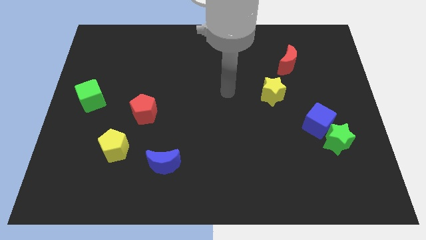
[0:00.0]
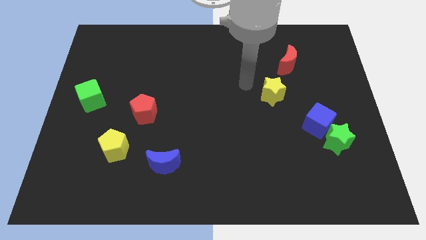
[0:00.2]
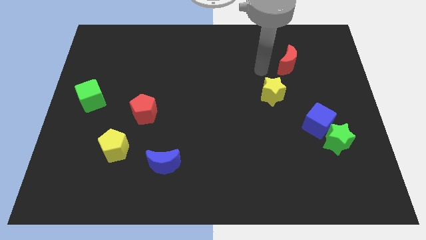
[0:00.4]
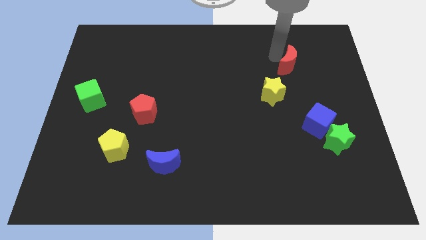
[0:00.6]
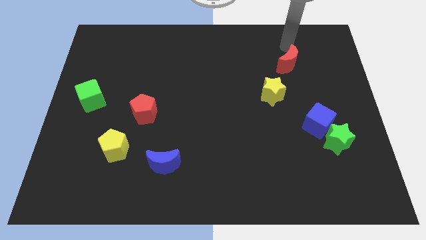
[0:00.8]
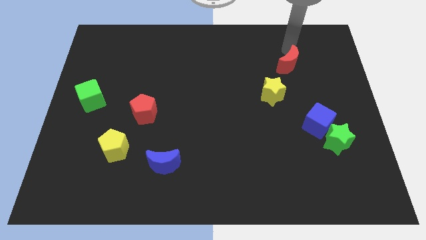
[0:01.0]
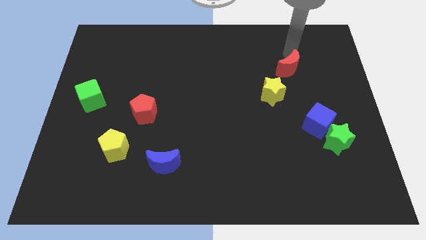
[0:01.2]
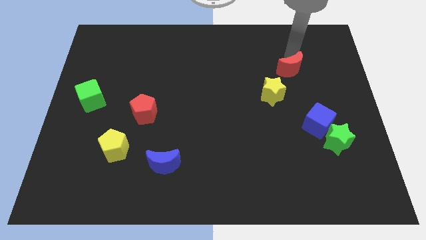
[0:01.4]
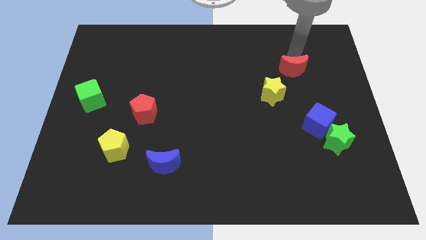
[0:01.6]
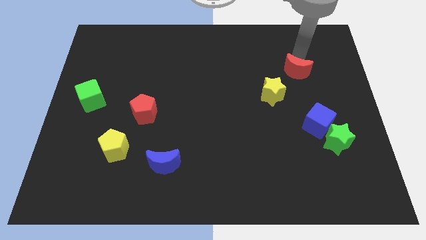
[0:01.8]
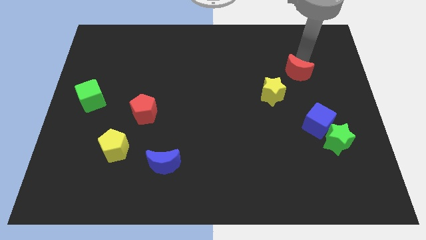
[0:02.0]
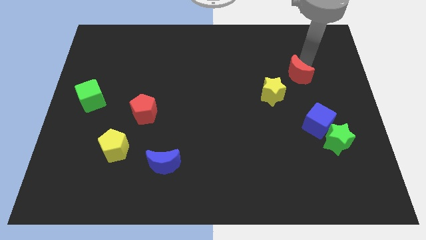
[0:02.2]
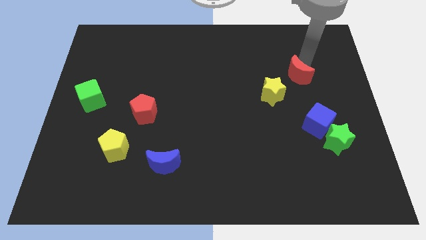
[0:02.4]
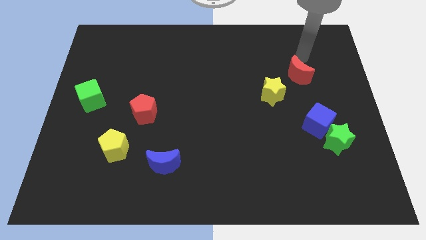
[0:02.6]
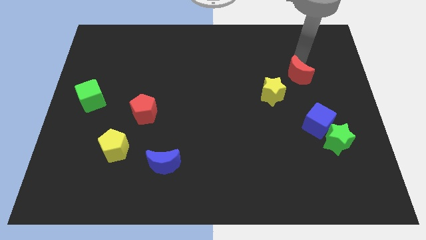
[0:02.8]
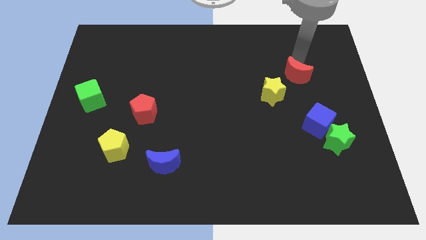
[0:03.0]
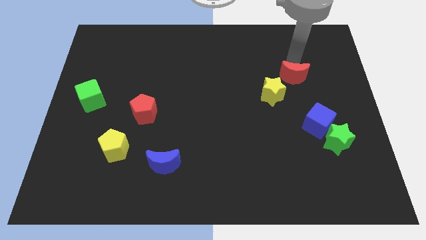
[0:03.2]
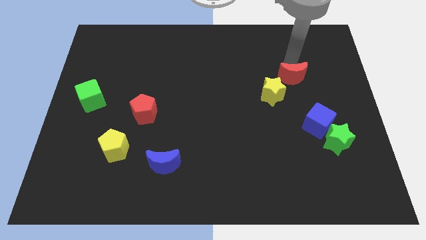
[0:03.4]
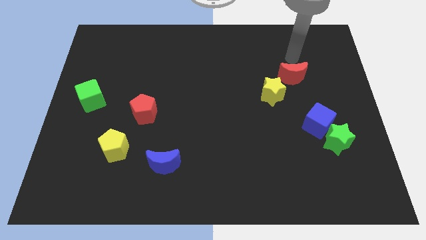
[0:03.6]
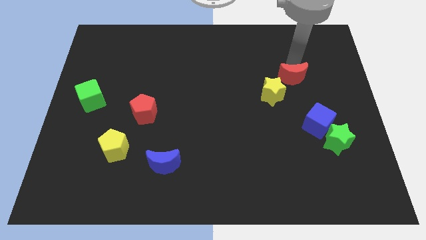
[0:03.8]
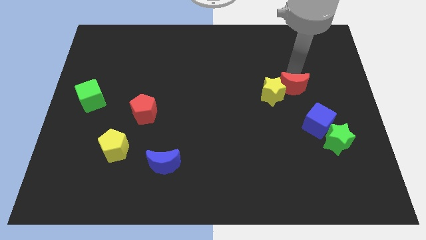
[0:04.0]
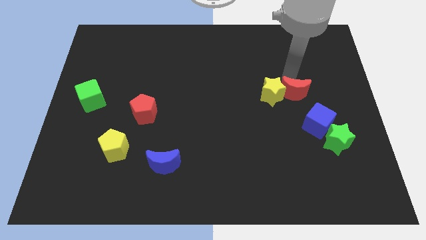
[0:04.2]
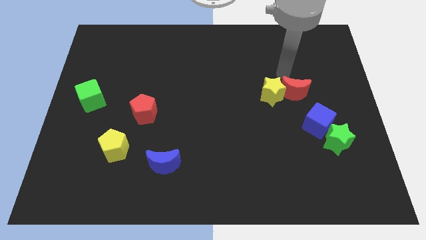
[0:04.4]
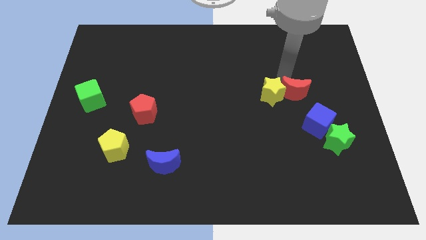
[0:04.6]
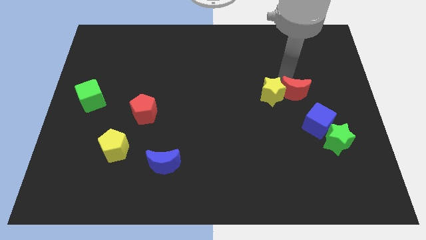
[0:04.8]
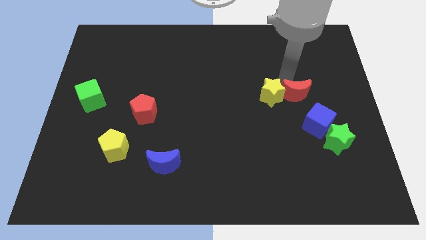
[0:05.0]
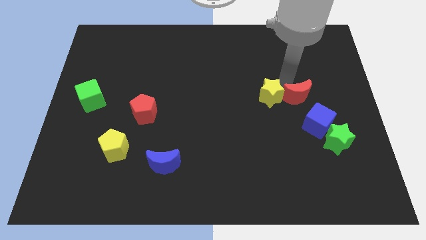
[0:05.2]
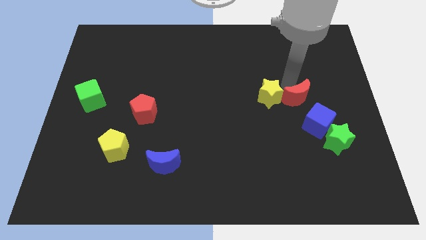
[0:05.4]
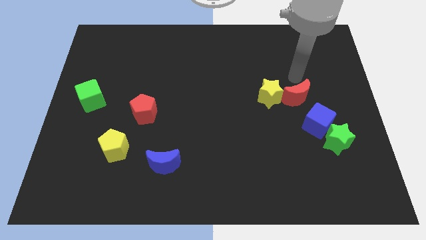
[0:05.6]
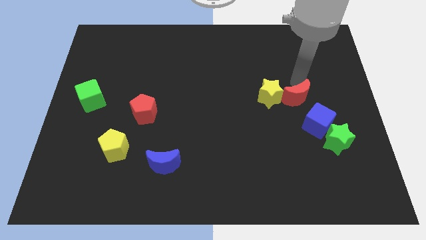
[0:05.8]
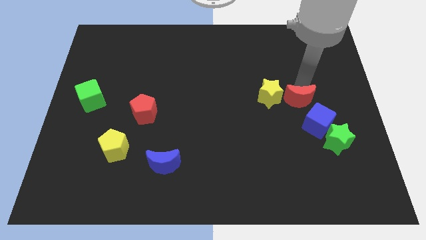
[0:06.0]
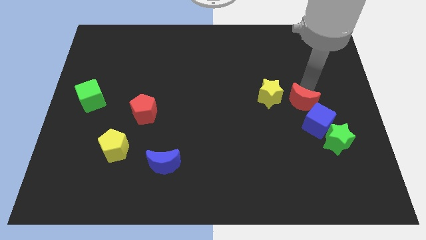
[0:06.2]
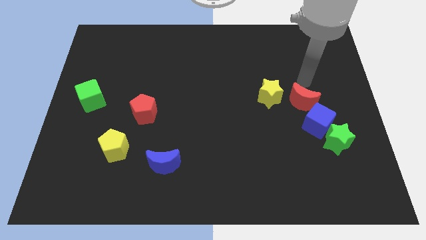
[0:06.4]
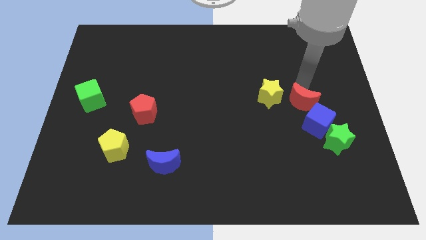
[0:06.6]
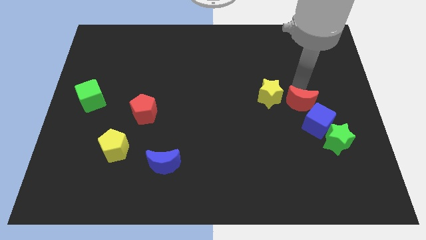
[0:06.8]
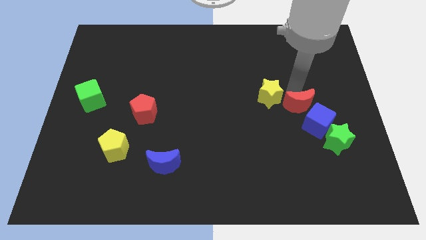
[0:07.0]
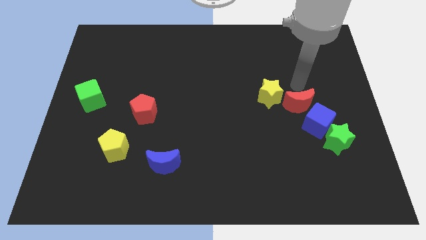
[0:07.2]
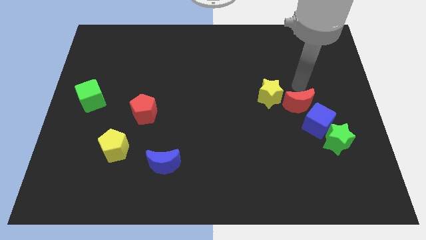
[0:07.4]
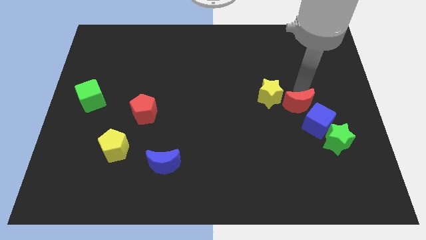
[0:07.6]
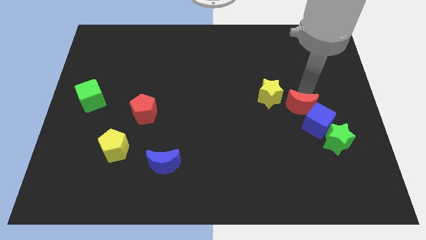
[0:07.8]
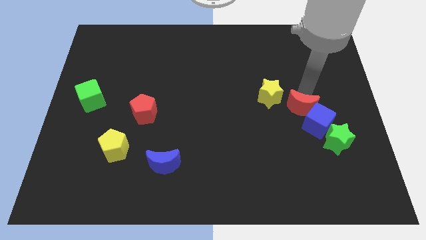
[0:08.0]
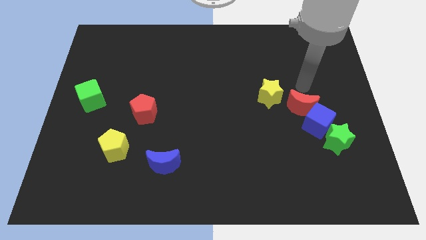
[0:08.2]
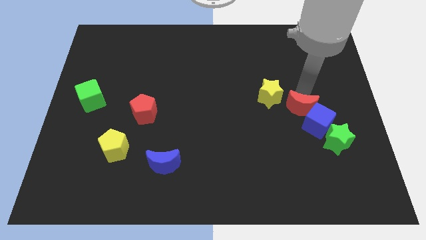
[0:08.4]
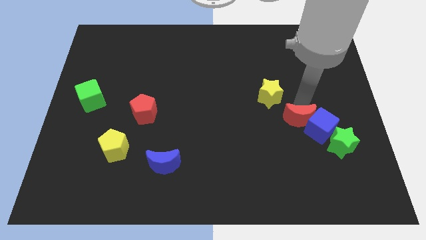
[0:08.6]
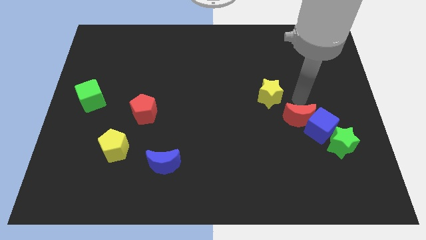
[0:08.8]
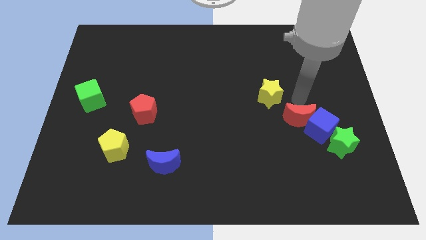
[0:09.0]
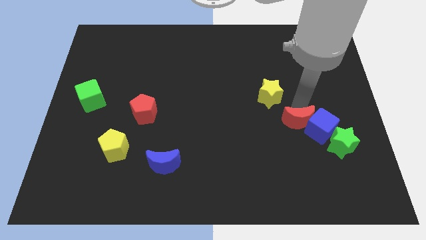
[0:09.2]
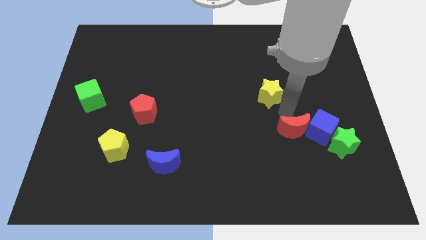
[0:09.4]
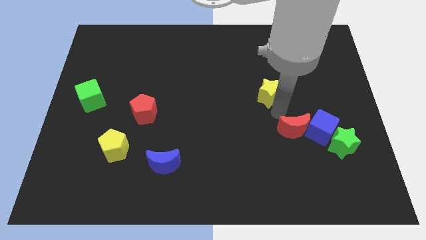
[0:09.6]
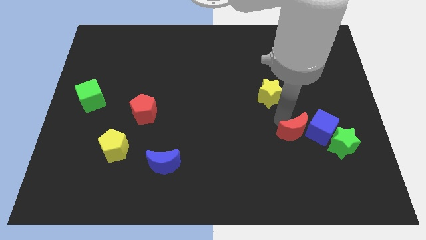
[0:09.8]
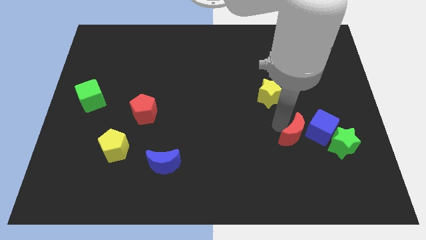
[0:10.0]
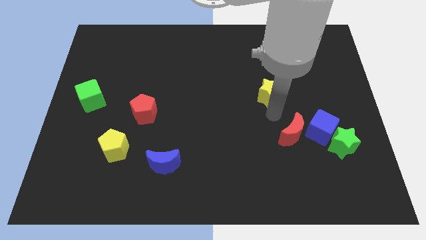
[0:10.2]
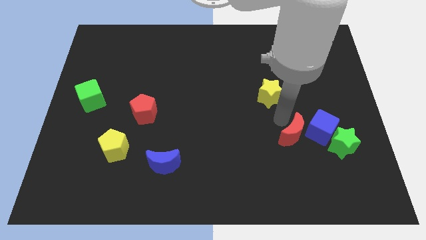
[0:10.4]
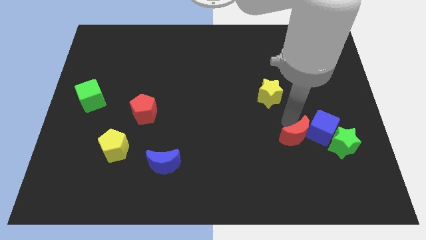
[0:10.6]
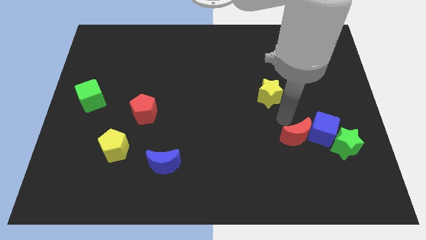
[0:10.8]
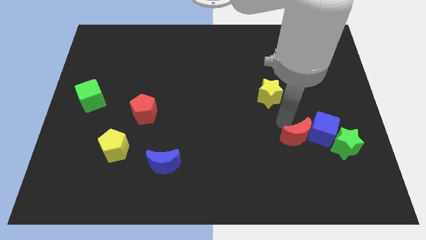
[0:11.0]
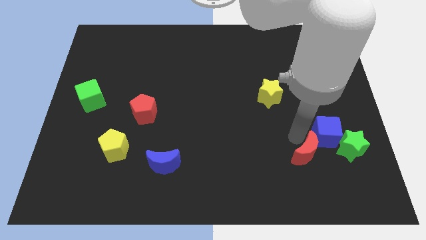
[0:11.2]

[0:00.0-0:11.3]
move the red moon below the blue cube

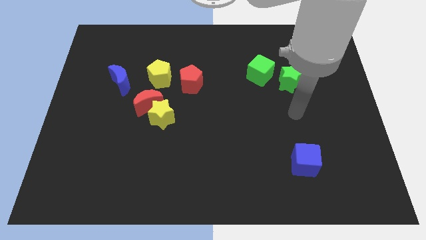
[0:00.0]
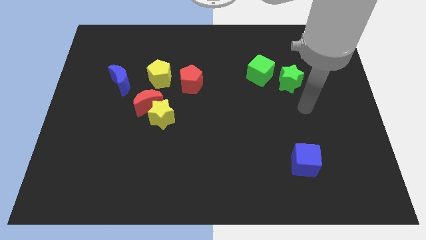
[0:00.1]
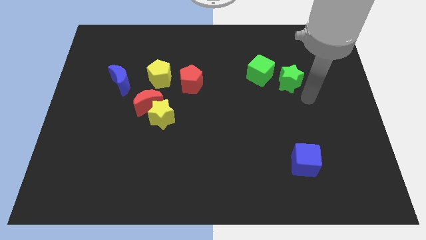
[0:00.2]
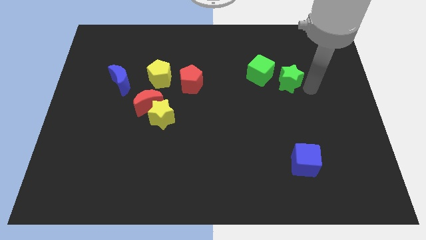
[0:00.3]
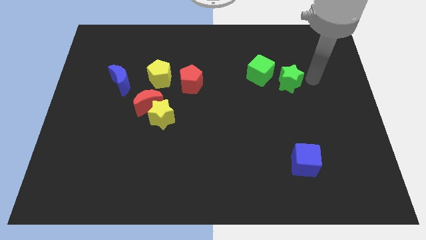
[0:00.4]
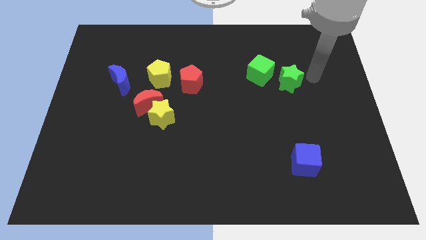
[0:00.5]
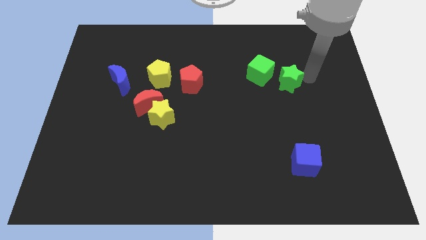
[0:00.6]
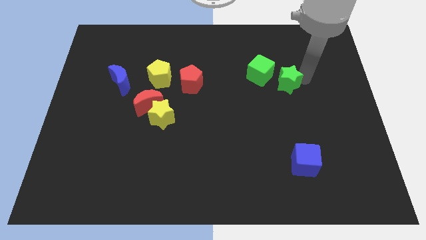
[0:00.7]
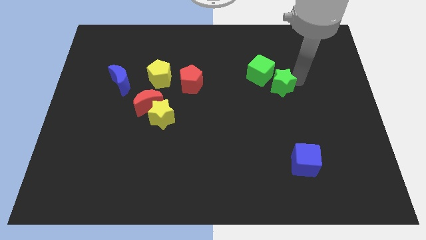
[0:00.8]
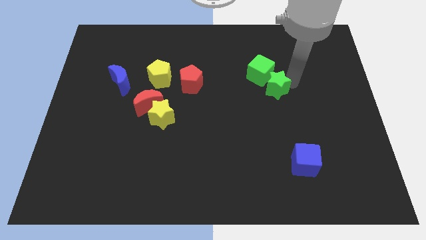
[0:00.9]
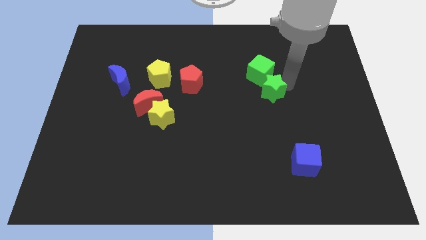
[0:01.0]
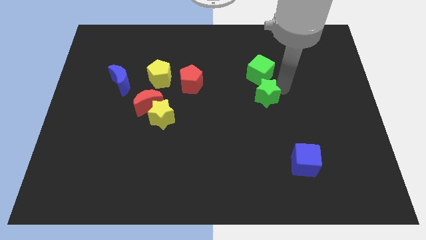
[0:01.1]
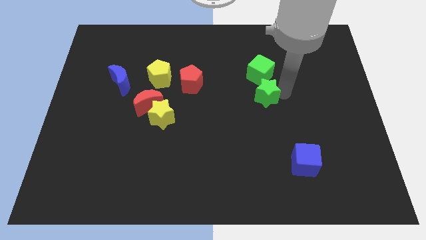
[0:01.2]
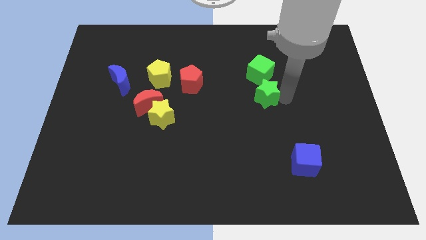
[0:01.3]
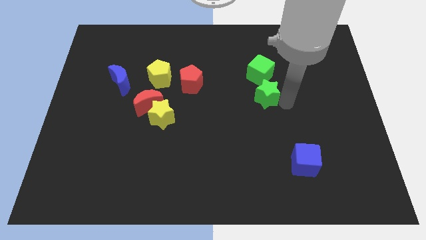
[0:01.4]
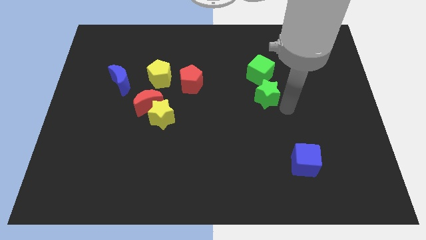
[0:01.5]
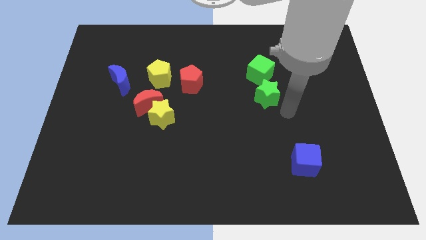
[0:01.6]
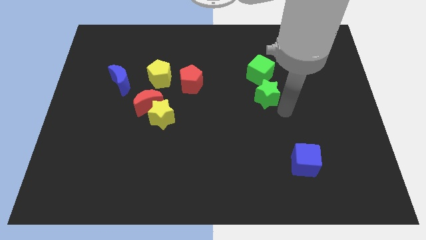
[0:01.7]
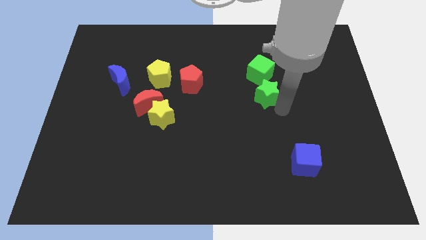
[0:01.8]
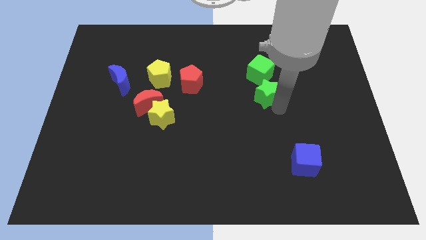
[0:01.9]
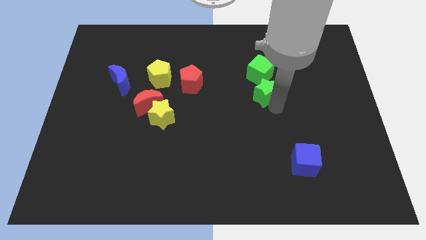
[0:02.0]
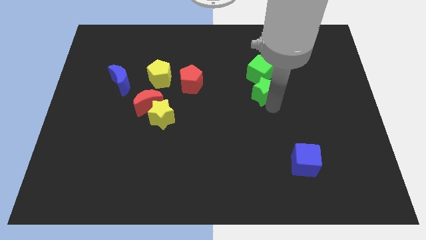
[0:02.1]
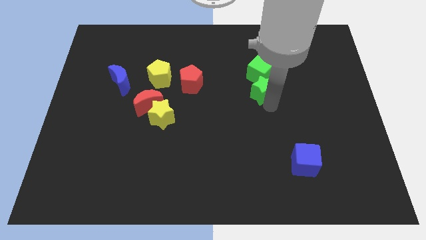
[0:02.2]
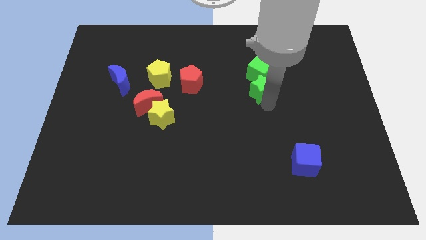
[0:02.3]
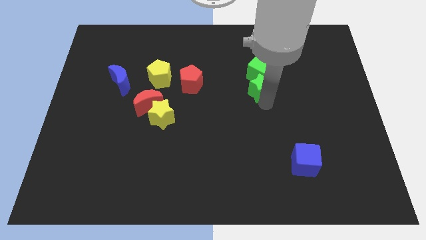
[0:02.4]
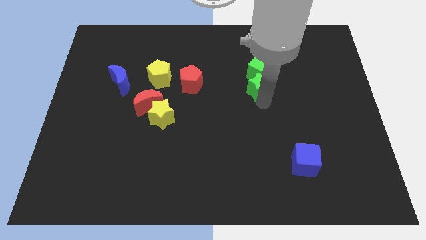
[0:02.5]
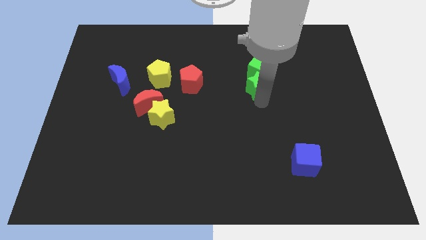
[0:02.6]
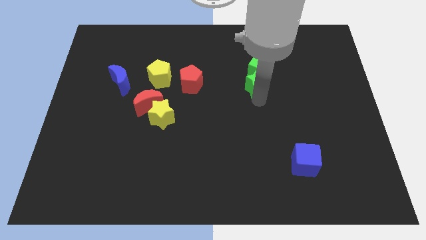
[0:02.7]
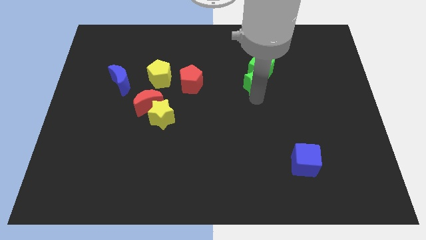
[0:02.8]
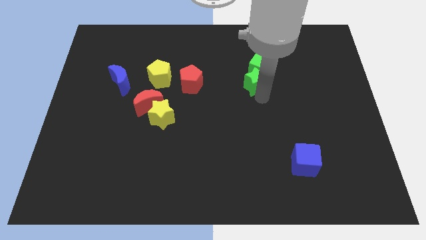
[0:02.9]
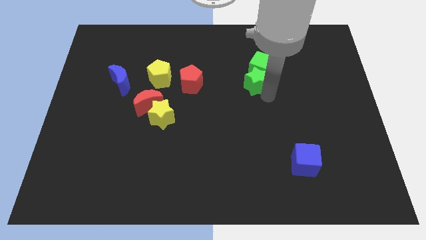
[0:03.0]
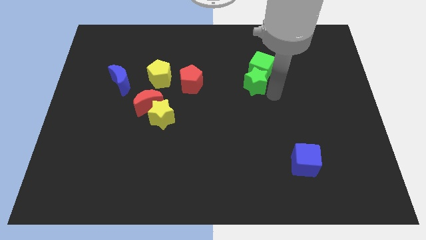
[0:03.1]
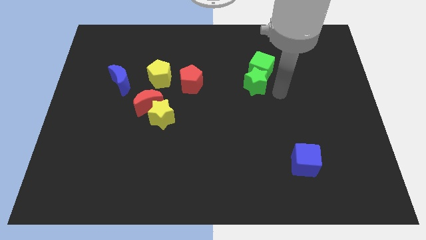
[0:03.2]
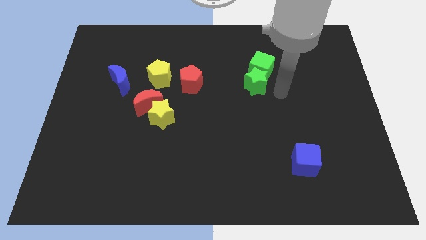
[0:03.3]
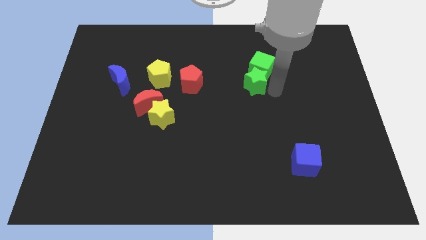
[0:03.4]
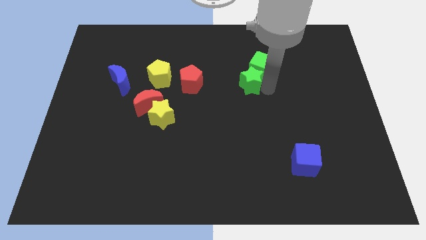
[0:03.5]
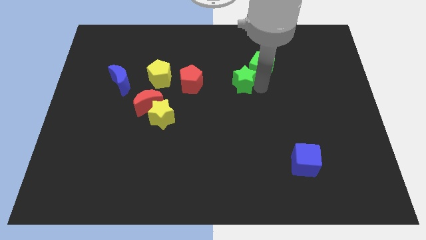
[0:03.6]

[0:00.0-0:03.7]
push the green star left of the green cube
